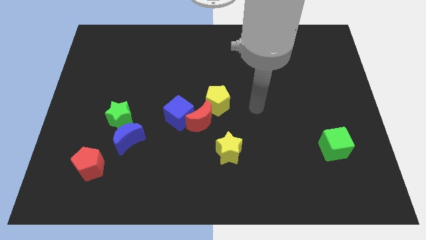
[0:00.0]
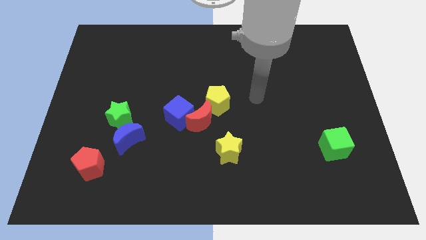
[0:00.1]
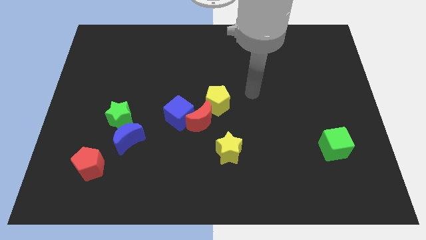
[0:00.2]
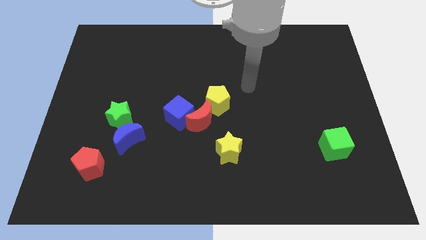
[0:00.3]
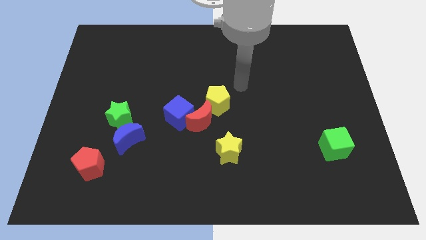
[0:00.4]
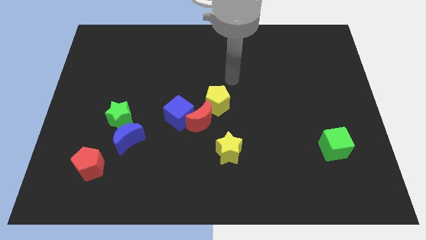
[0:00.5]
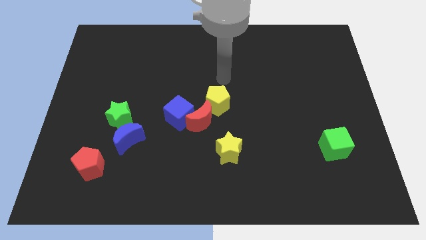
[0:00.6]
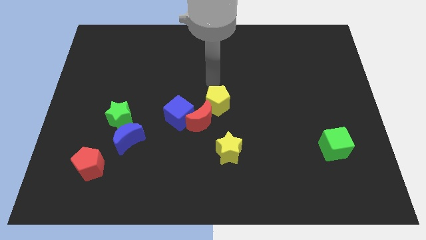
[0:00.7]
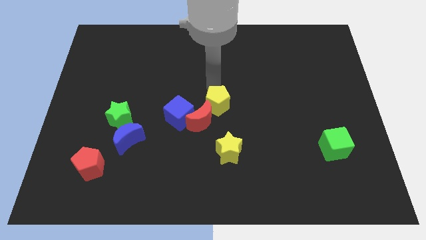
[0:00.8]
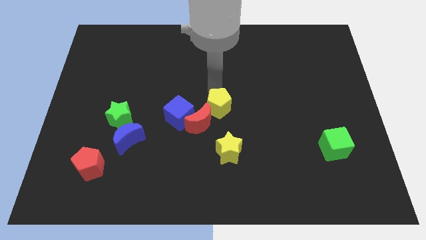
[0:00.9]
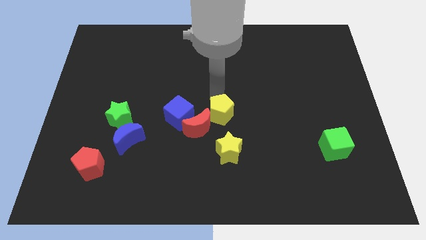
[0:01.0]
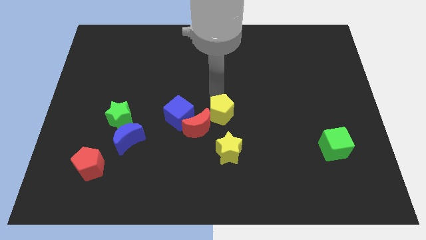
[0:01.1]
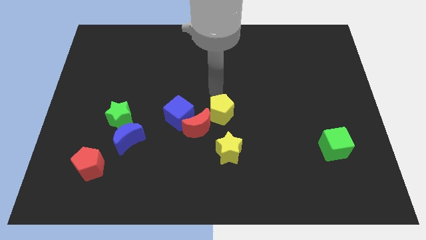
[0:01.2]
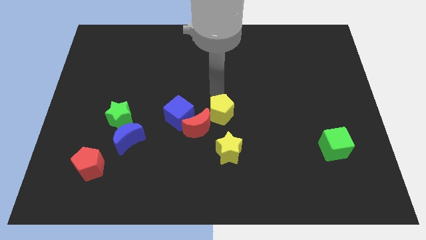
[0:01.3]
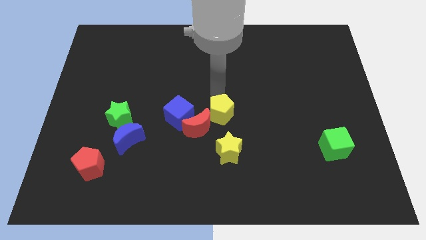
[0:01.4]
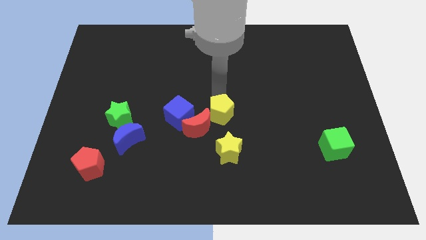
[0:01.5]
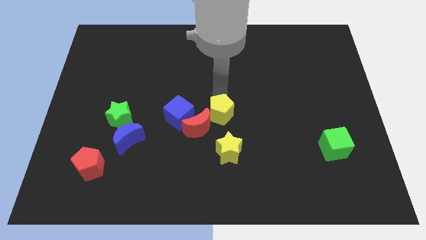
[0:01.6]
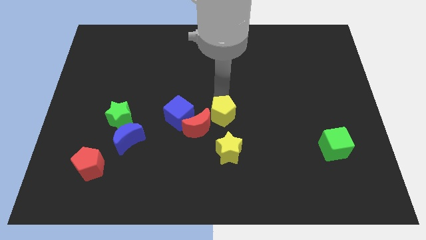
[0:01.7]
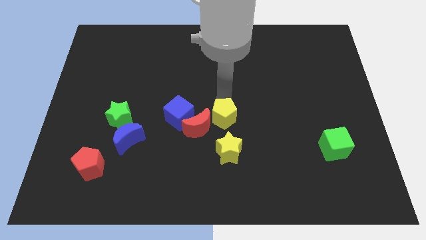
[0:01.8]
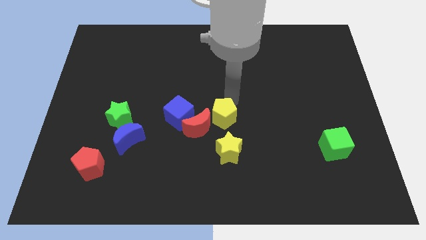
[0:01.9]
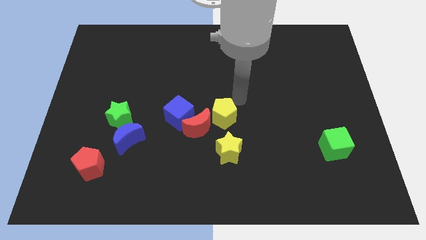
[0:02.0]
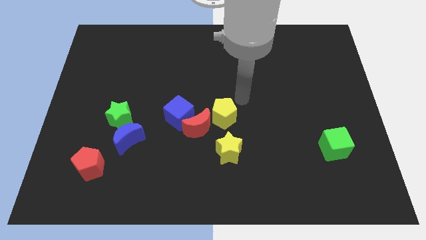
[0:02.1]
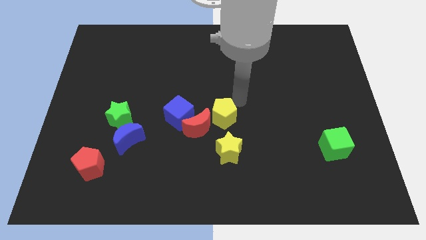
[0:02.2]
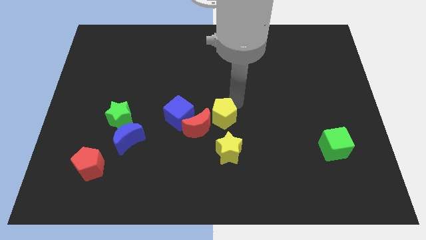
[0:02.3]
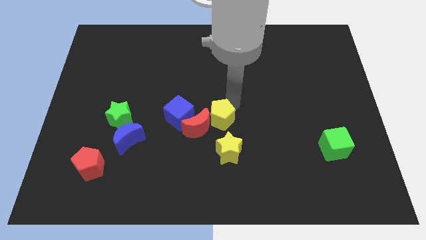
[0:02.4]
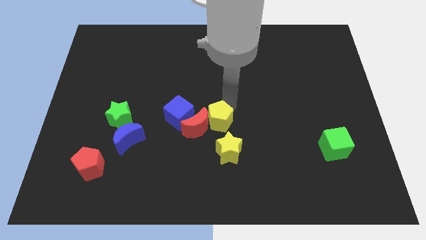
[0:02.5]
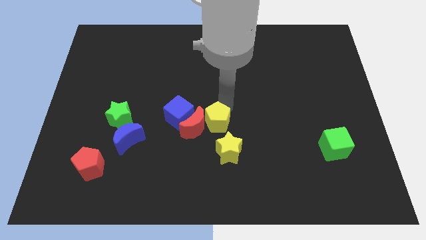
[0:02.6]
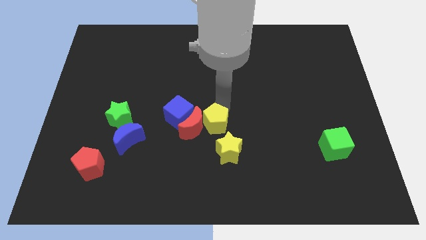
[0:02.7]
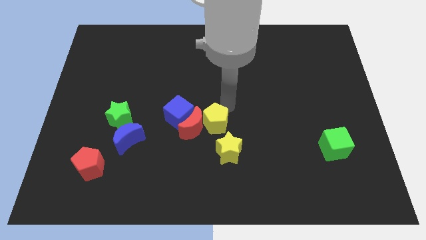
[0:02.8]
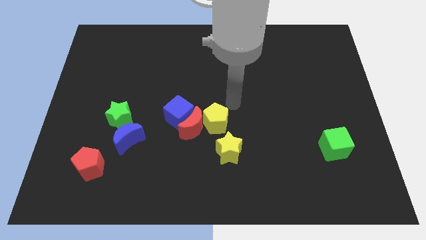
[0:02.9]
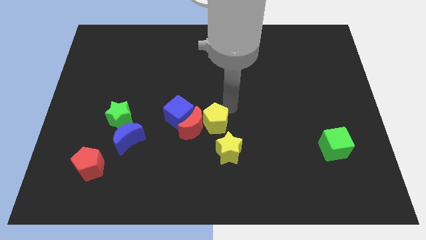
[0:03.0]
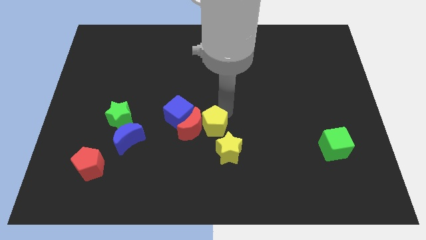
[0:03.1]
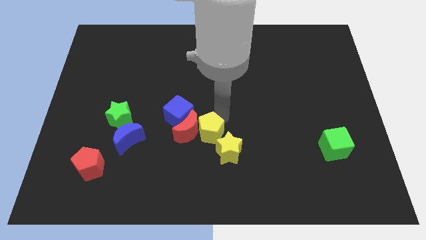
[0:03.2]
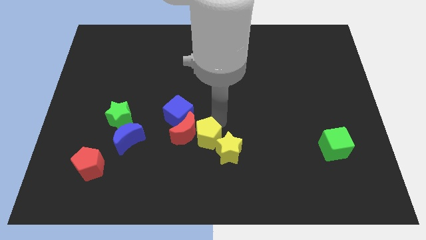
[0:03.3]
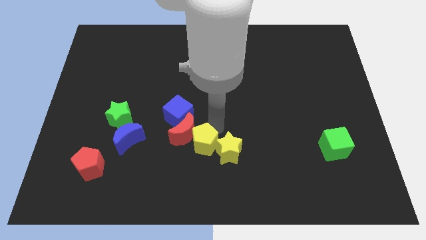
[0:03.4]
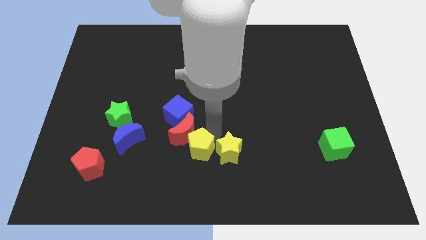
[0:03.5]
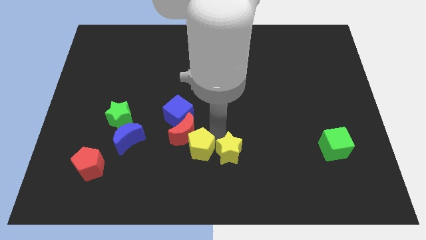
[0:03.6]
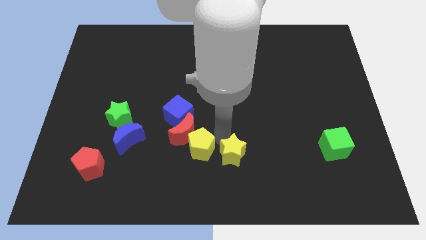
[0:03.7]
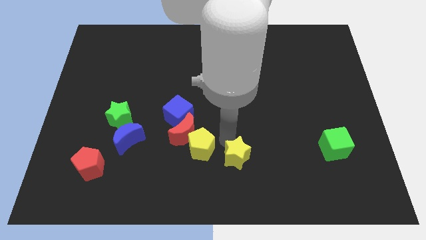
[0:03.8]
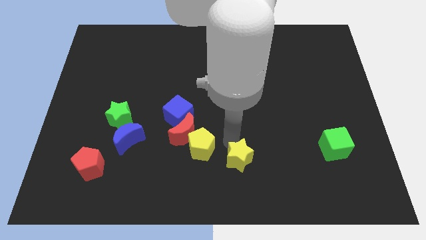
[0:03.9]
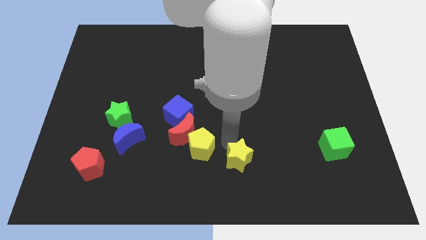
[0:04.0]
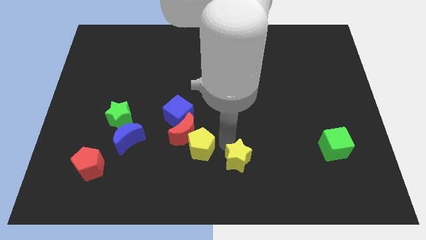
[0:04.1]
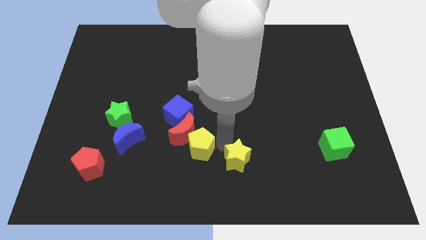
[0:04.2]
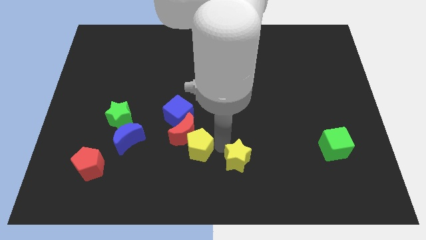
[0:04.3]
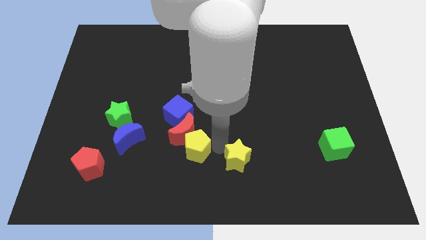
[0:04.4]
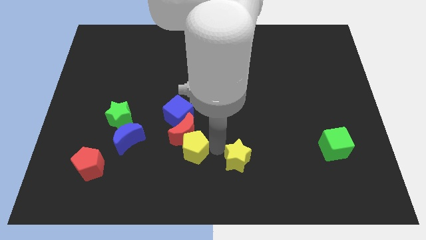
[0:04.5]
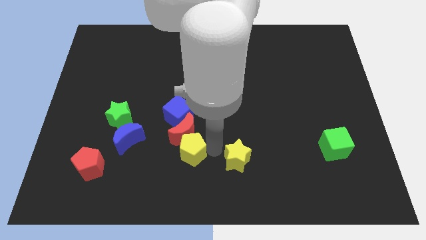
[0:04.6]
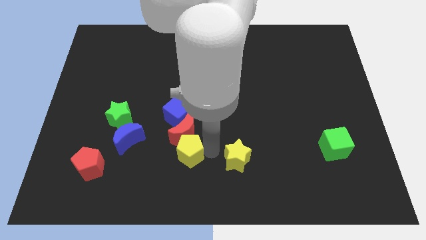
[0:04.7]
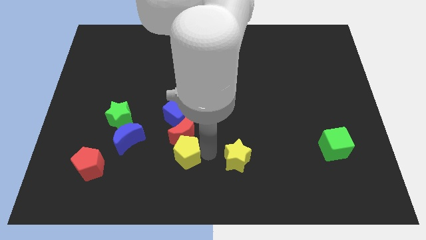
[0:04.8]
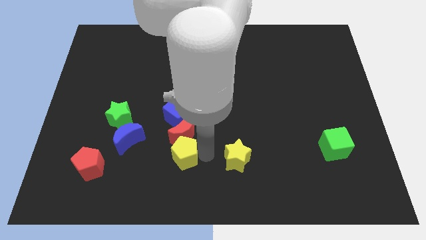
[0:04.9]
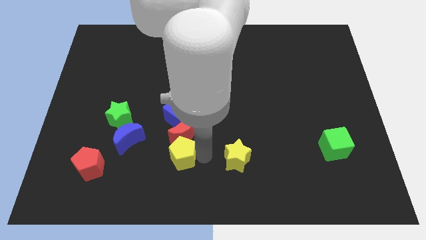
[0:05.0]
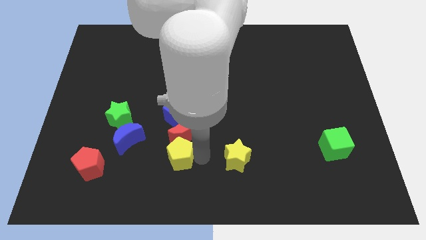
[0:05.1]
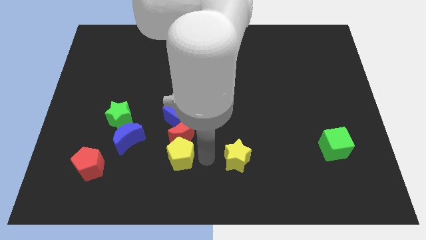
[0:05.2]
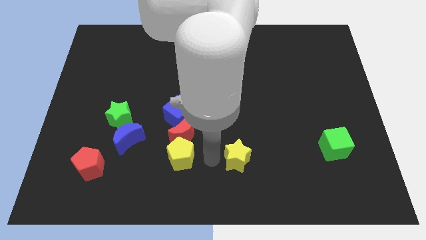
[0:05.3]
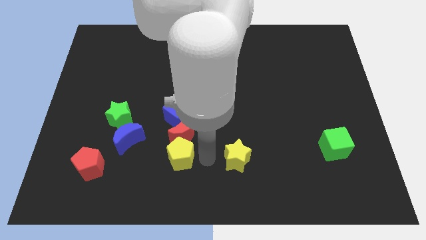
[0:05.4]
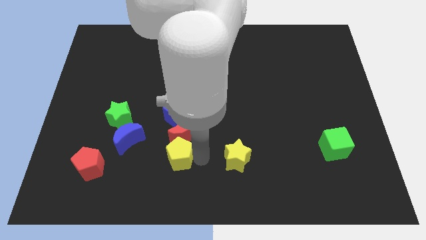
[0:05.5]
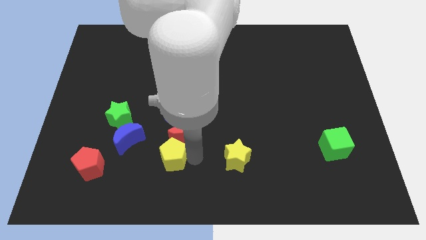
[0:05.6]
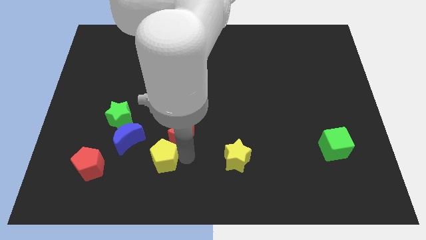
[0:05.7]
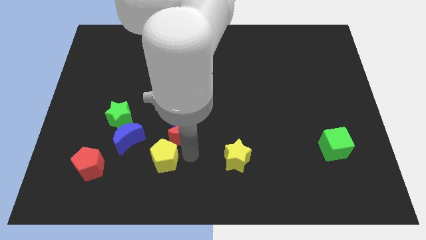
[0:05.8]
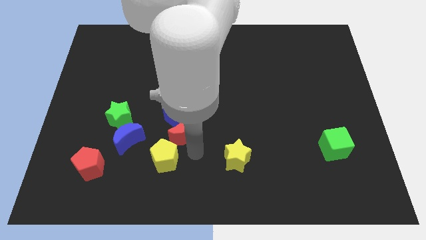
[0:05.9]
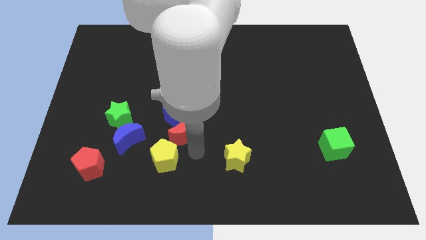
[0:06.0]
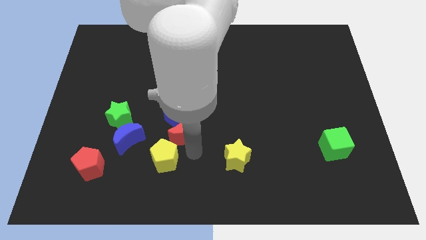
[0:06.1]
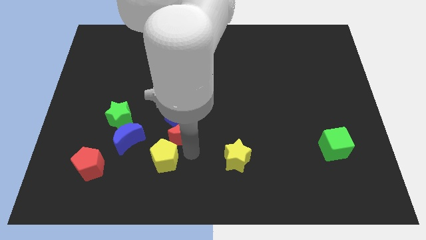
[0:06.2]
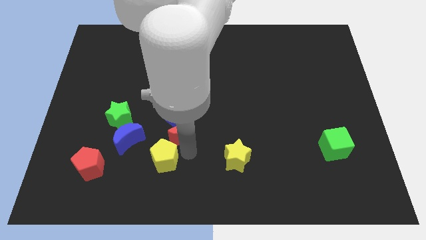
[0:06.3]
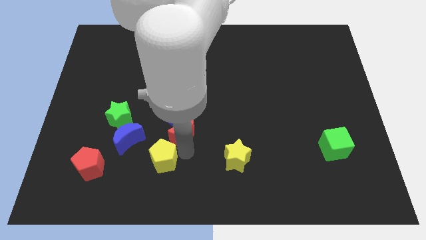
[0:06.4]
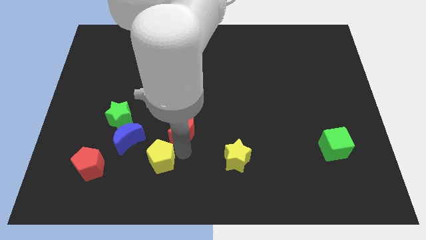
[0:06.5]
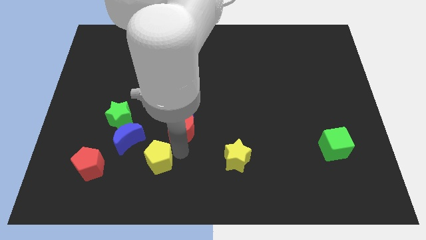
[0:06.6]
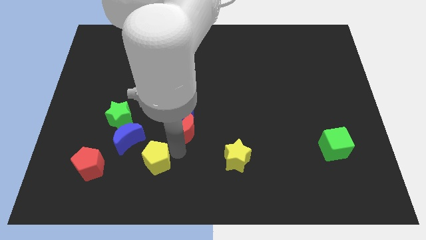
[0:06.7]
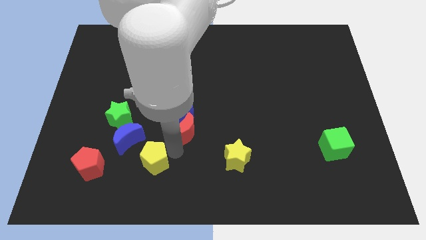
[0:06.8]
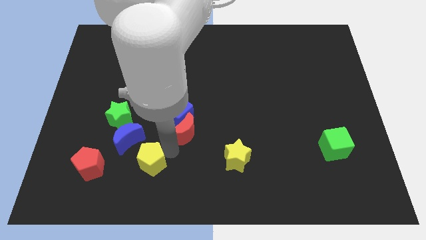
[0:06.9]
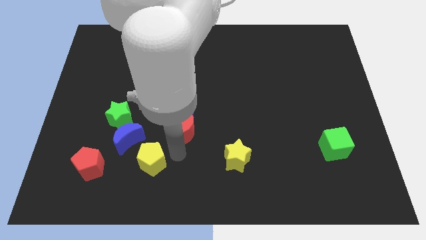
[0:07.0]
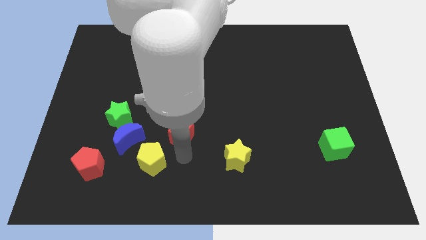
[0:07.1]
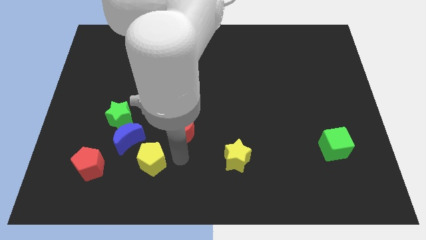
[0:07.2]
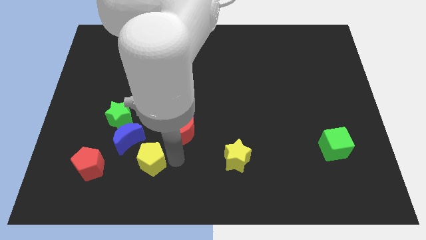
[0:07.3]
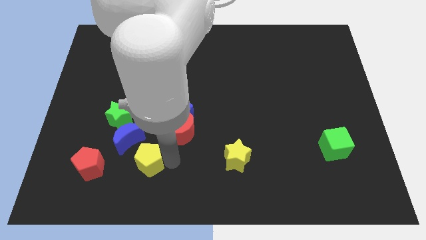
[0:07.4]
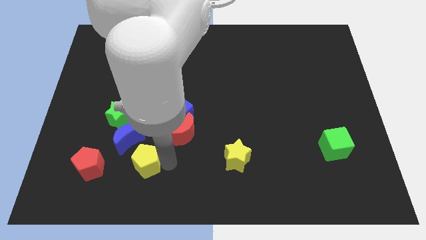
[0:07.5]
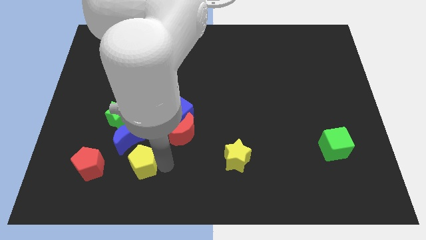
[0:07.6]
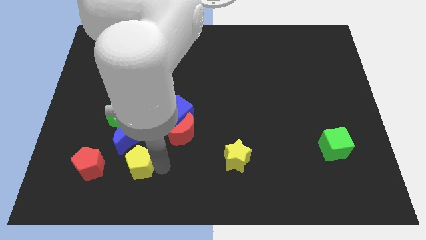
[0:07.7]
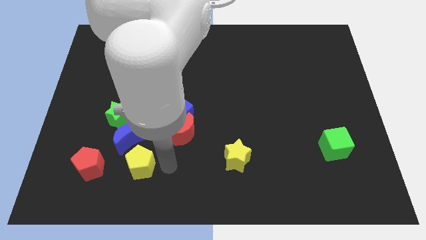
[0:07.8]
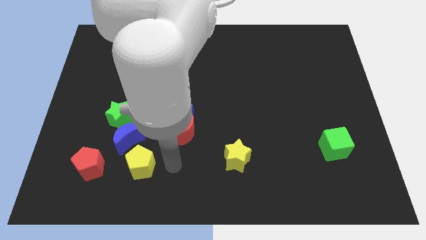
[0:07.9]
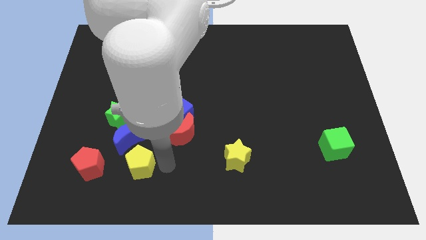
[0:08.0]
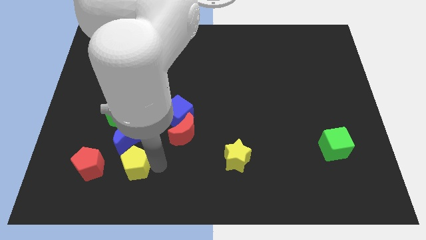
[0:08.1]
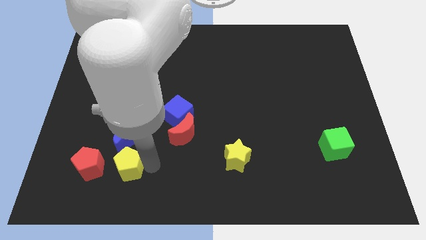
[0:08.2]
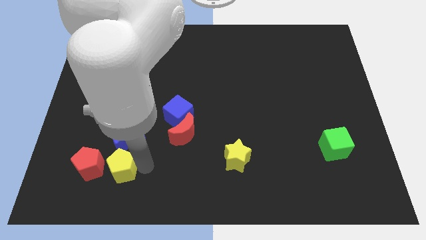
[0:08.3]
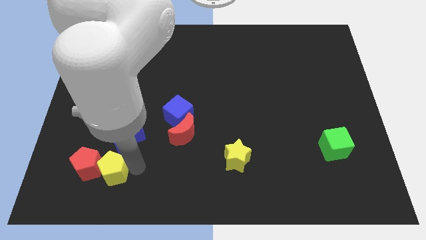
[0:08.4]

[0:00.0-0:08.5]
put the yellow pentagon next to the red pentagon
